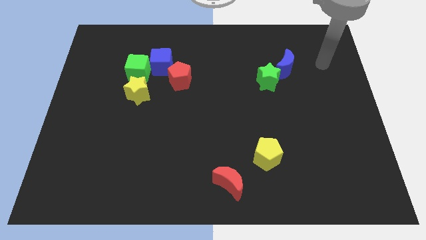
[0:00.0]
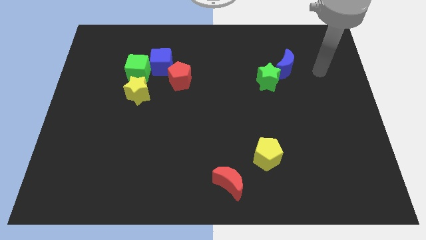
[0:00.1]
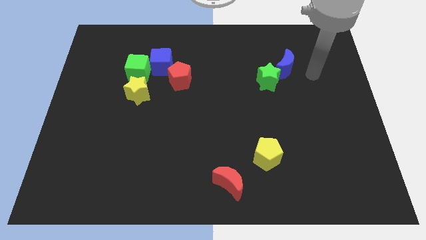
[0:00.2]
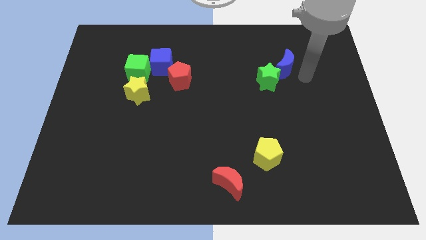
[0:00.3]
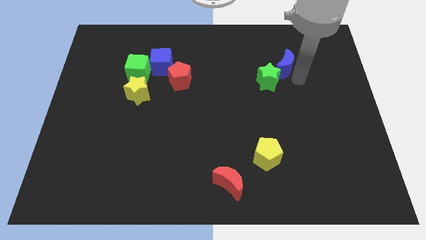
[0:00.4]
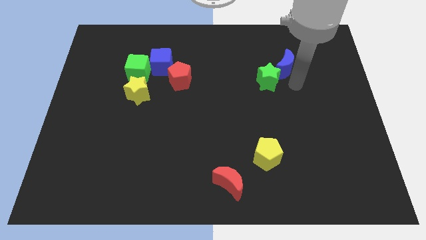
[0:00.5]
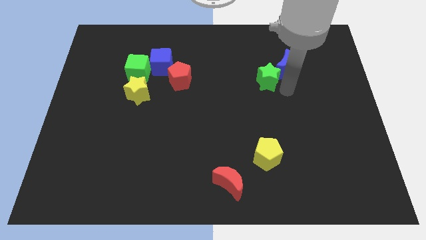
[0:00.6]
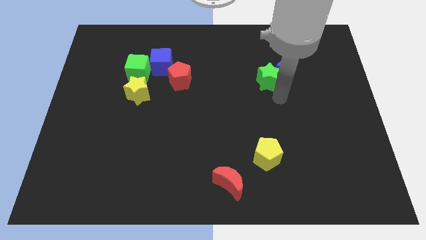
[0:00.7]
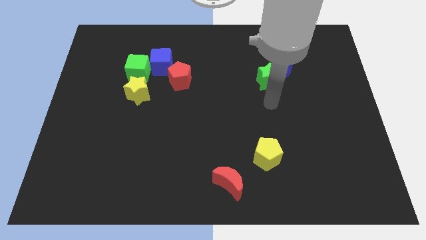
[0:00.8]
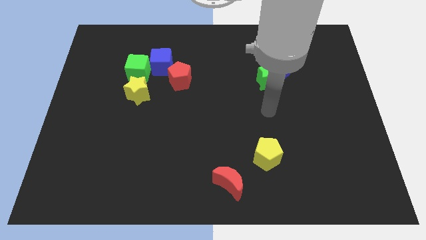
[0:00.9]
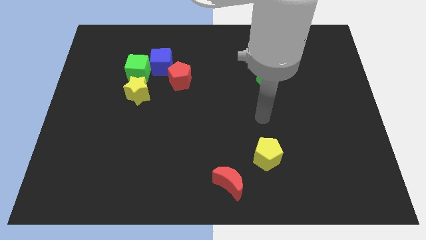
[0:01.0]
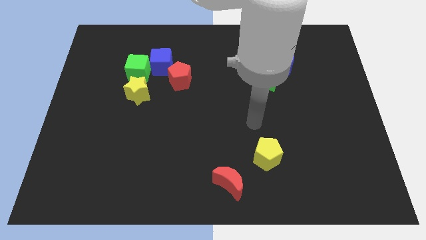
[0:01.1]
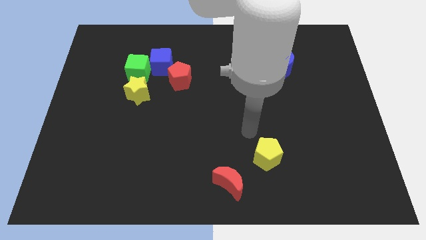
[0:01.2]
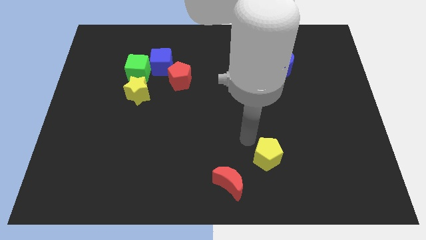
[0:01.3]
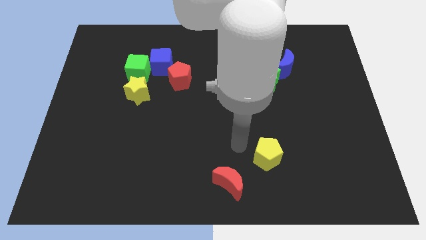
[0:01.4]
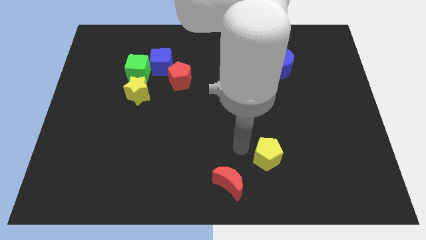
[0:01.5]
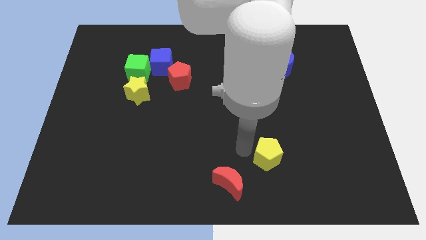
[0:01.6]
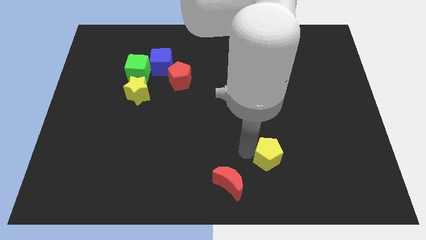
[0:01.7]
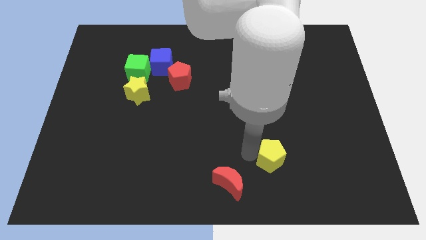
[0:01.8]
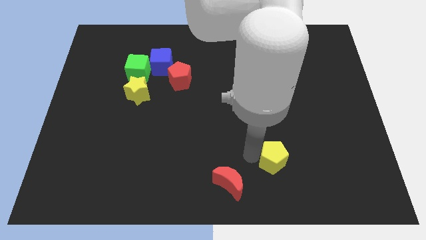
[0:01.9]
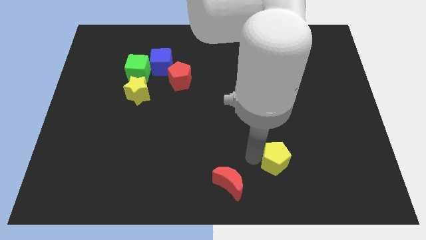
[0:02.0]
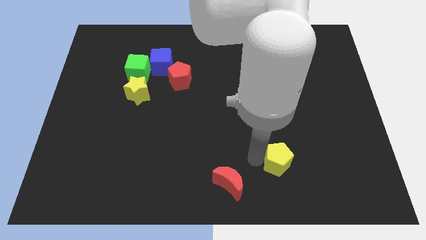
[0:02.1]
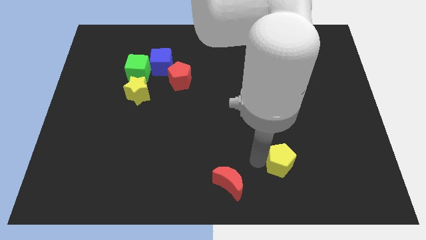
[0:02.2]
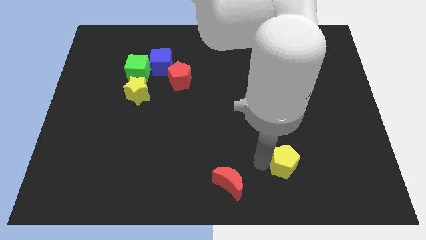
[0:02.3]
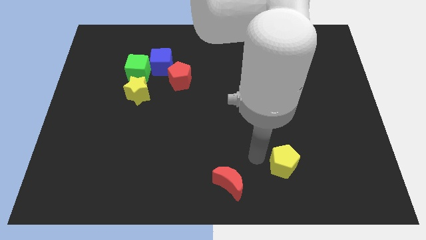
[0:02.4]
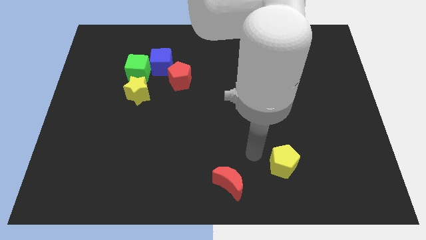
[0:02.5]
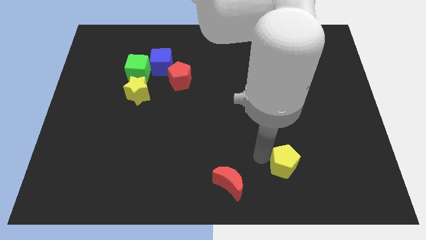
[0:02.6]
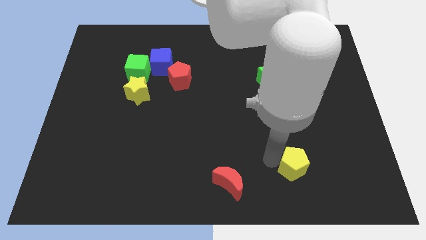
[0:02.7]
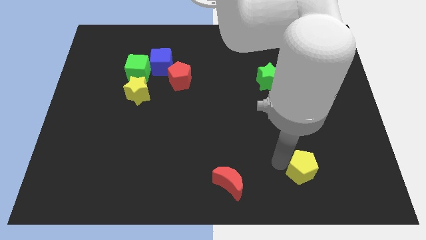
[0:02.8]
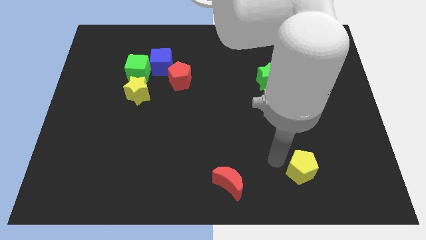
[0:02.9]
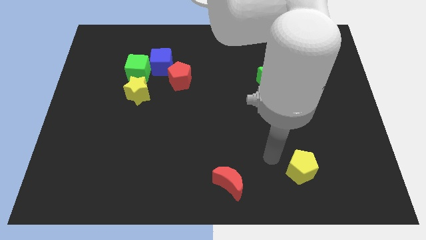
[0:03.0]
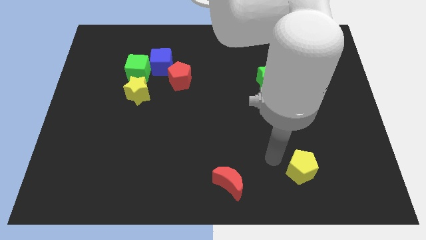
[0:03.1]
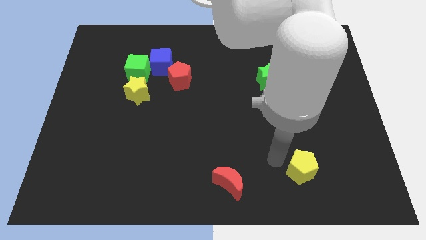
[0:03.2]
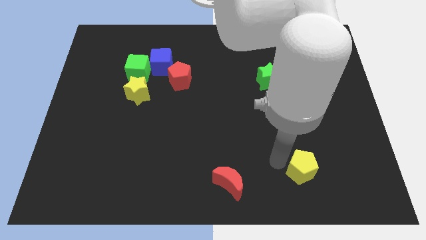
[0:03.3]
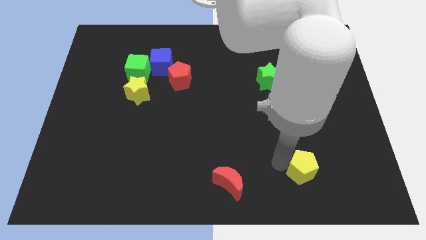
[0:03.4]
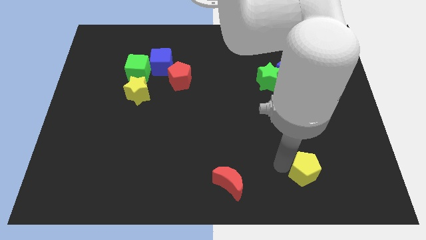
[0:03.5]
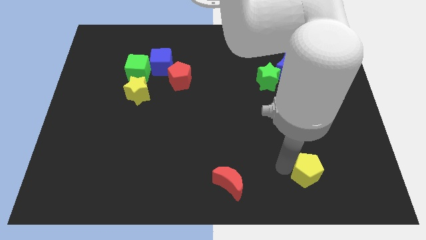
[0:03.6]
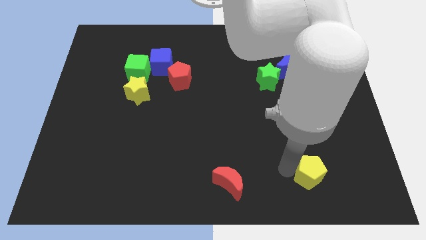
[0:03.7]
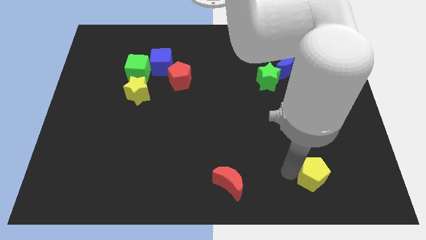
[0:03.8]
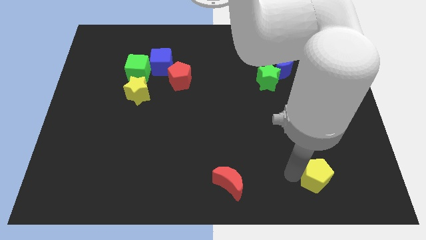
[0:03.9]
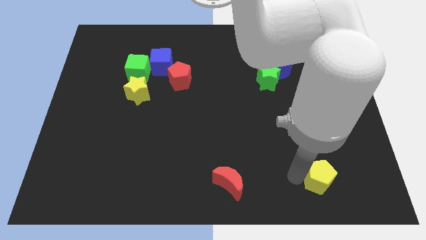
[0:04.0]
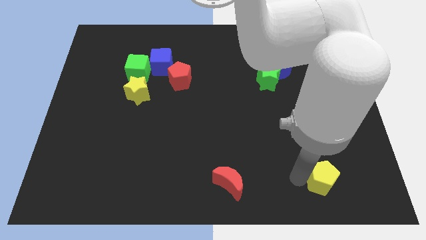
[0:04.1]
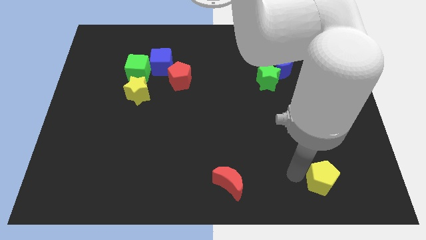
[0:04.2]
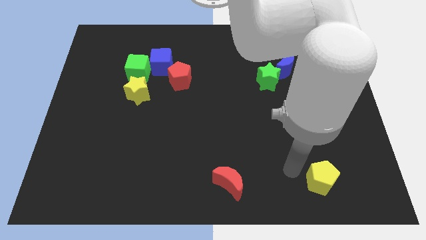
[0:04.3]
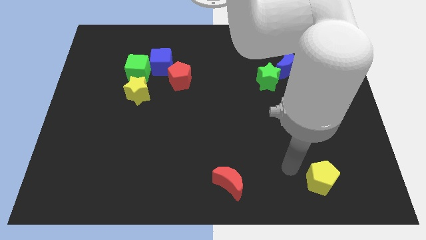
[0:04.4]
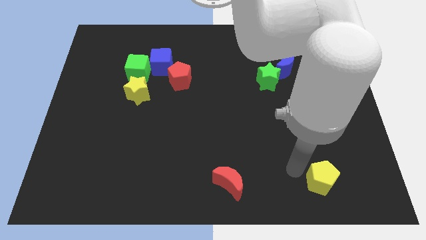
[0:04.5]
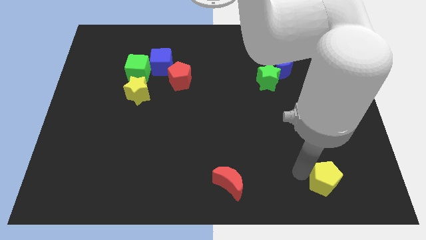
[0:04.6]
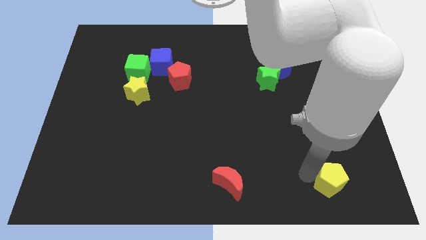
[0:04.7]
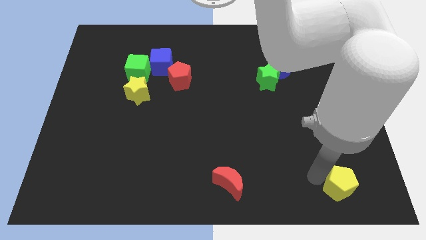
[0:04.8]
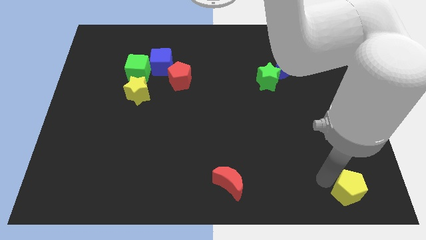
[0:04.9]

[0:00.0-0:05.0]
push the yellow pentagon to the bottom right of the board
